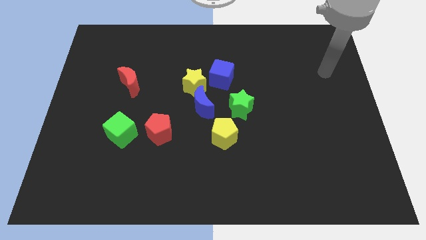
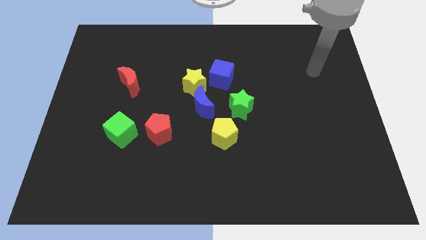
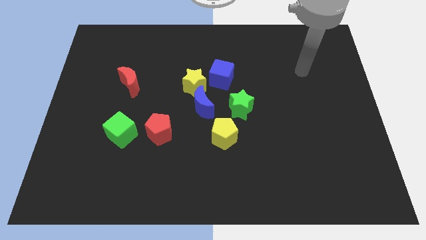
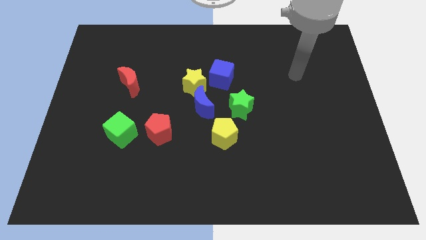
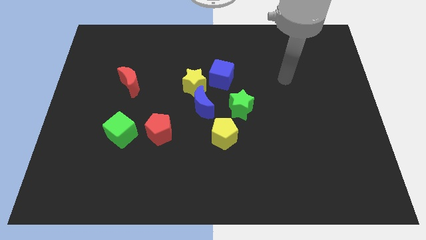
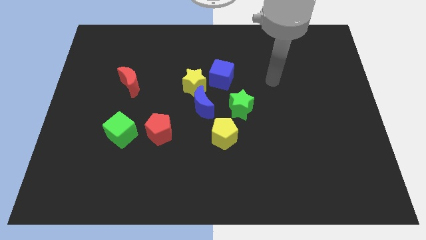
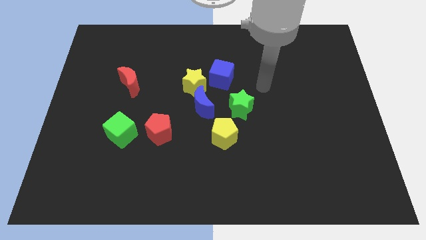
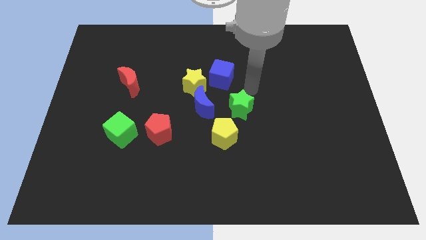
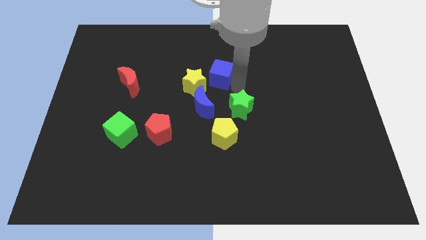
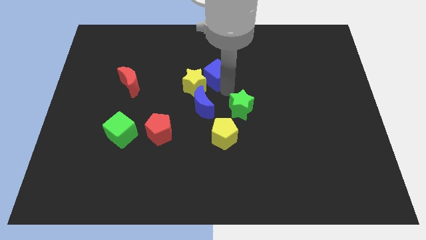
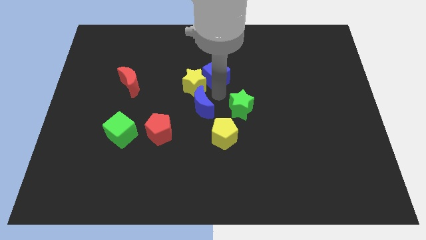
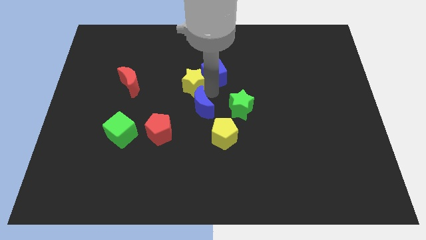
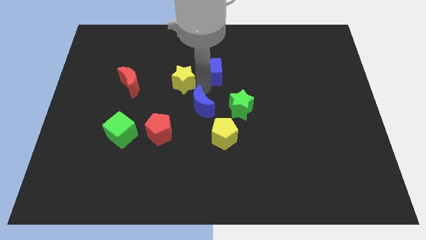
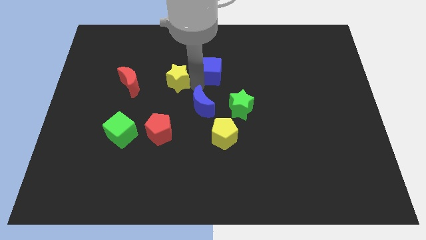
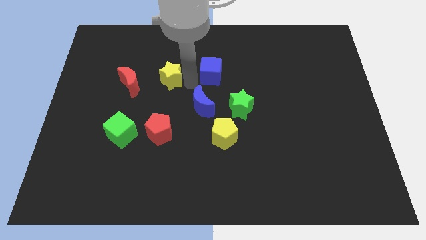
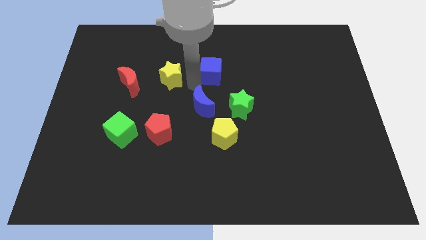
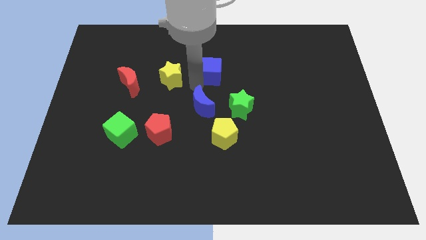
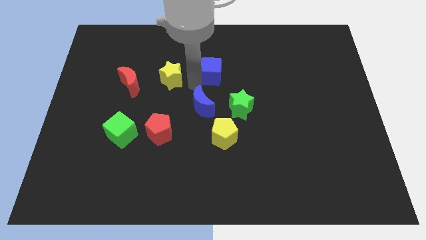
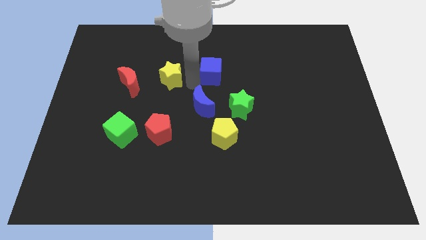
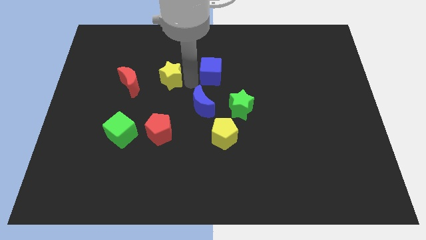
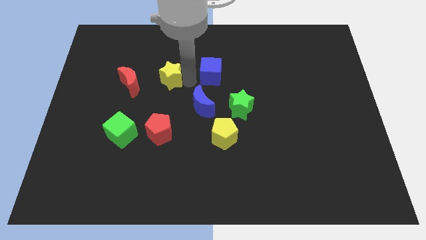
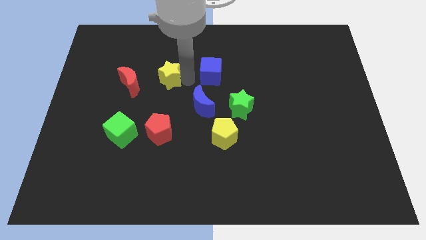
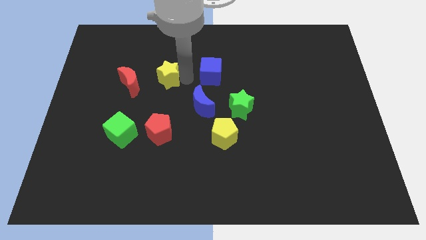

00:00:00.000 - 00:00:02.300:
separate the yellow star from the blue cube and blue moon

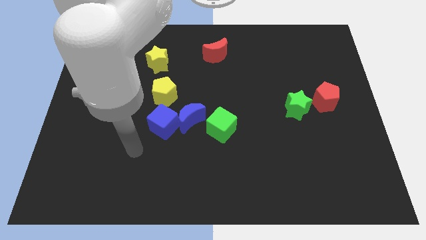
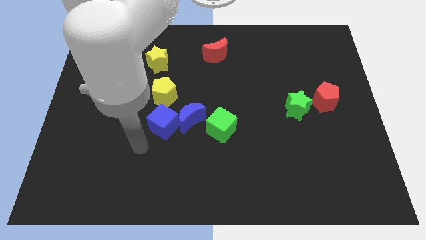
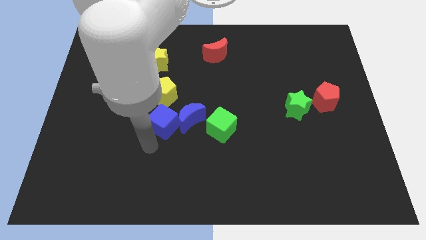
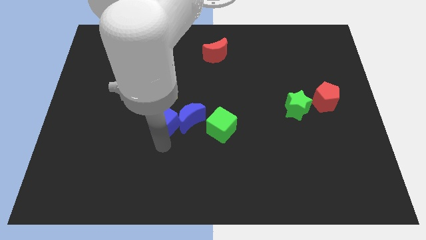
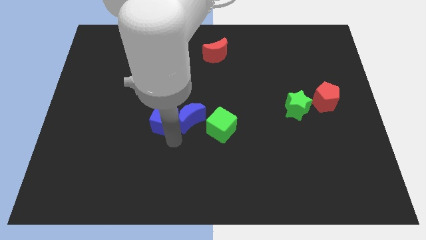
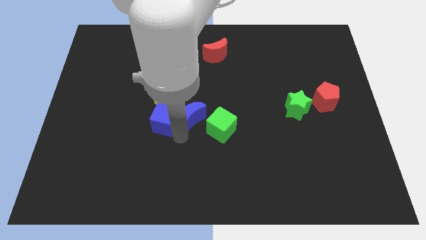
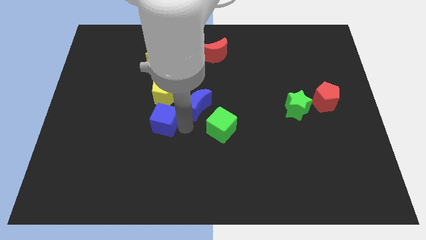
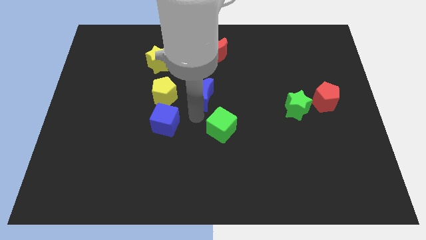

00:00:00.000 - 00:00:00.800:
separate the green cube from the blue moon

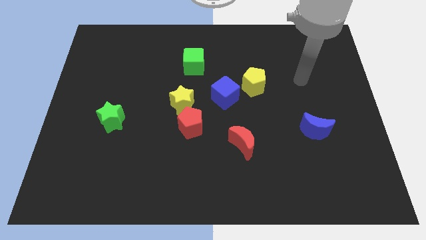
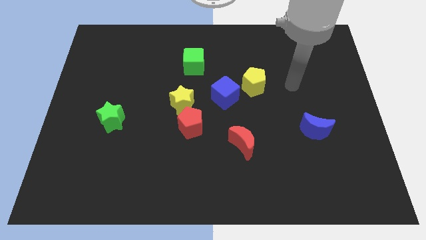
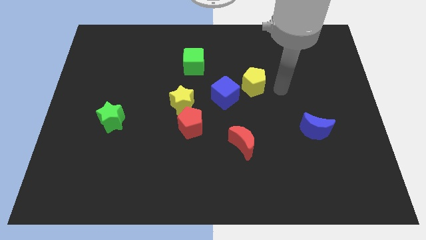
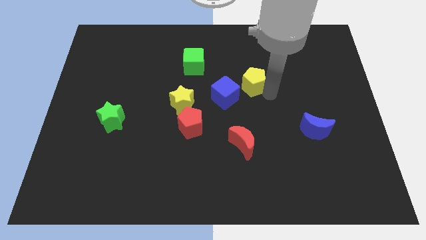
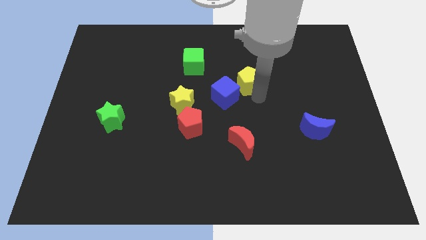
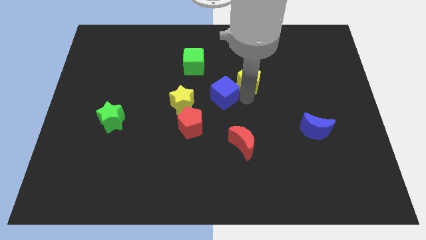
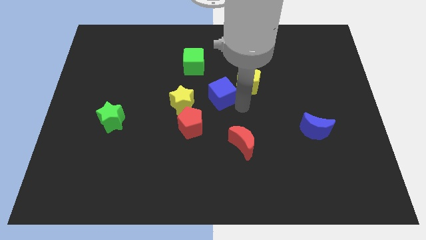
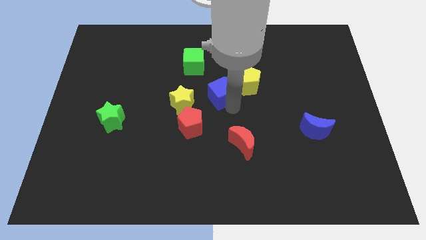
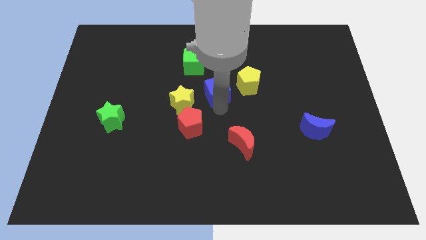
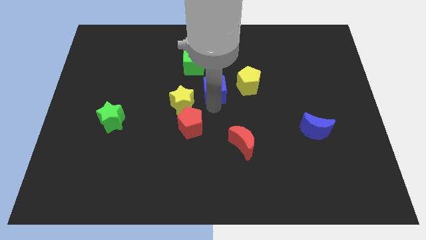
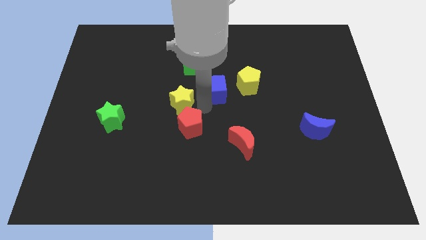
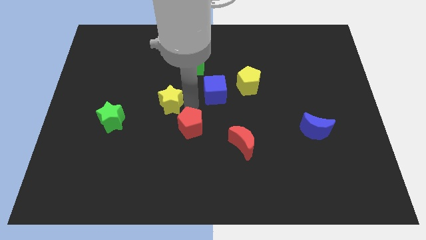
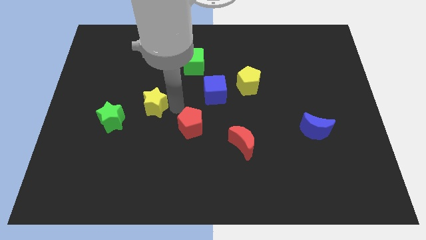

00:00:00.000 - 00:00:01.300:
move the red pentagon away from the yellow star

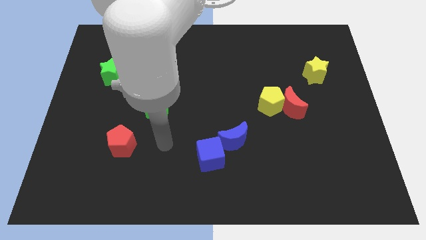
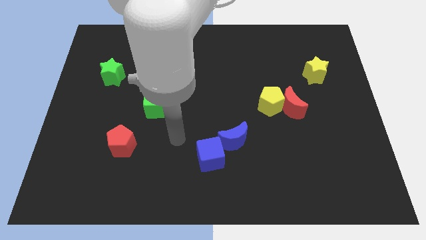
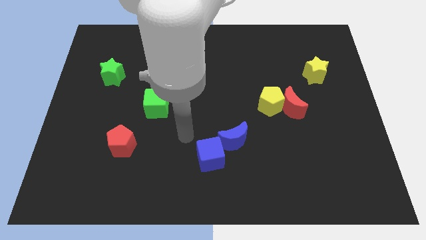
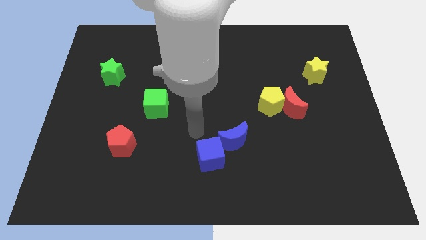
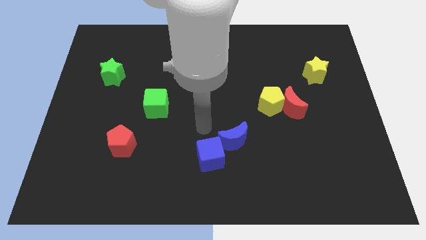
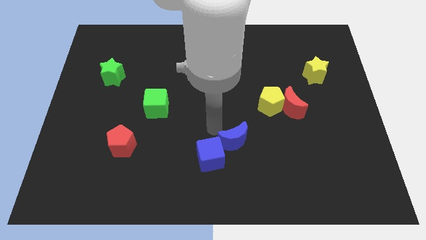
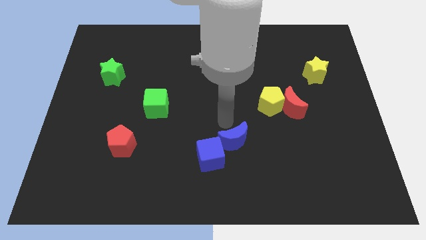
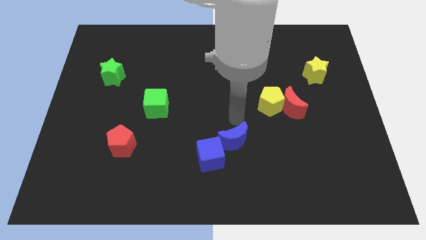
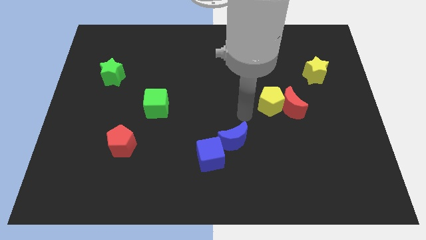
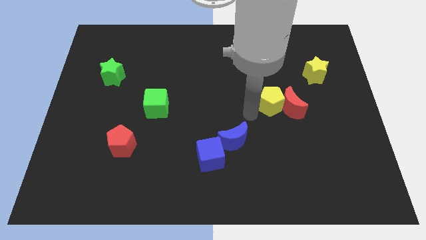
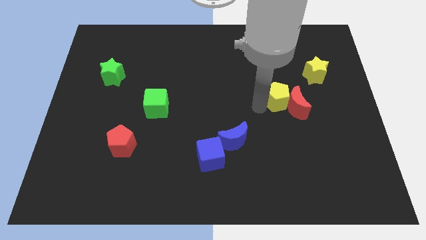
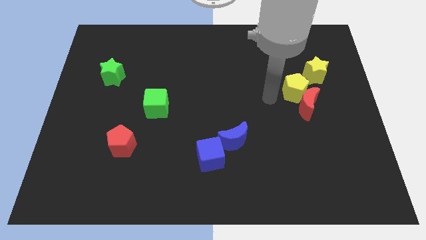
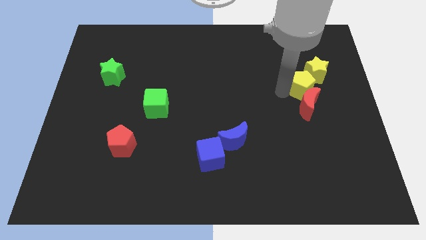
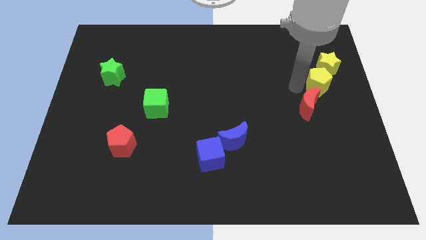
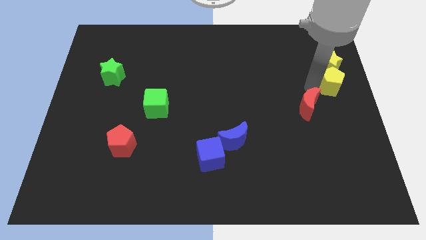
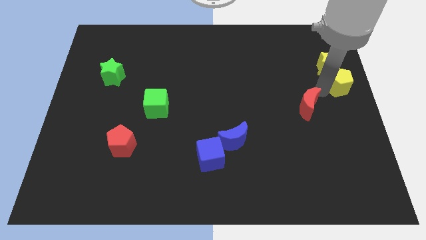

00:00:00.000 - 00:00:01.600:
pull the red moon apart from the yellow pentagon

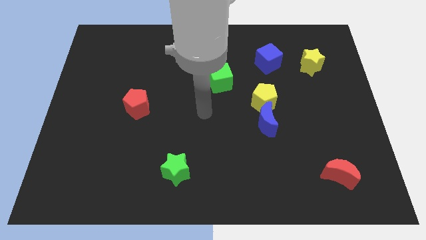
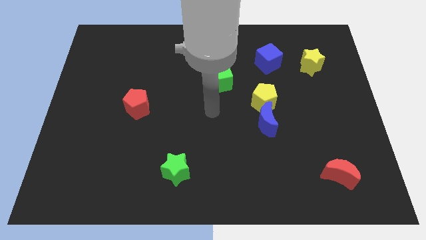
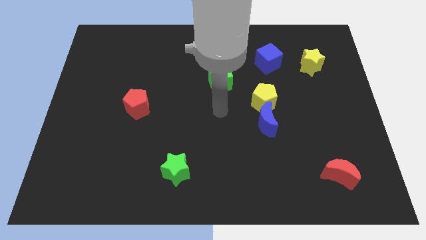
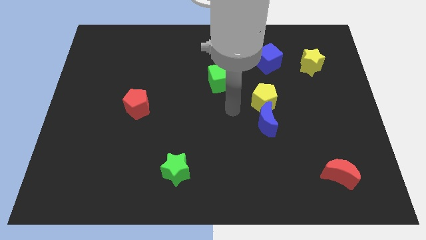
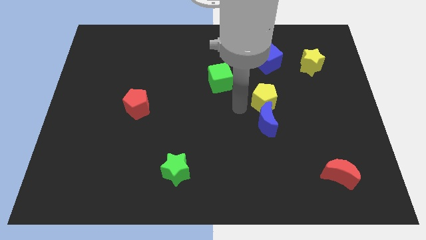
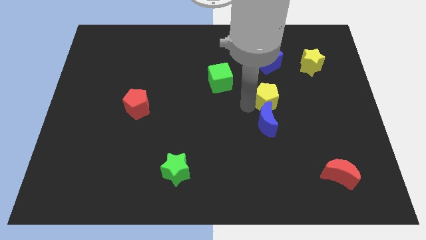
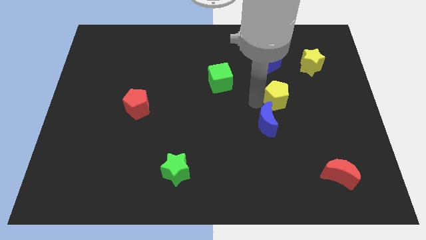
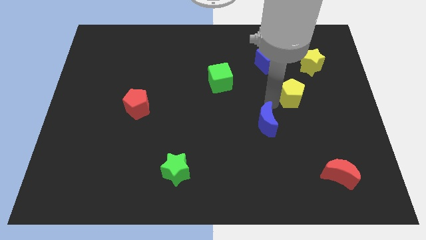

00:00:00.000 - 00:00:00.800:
separate the blue moon from the yellow pentagon

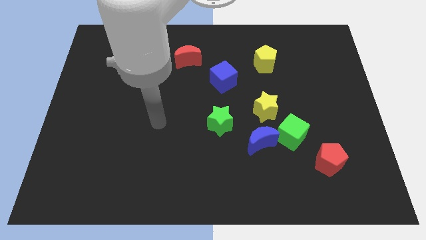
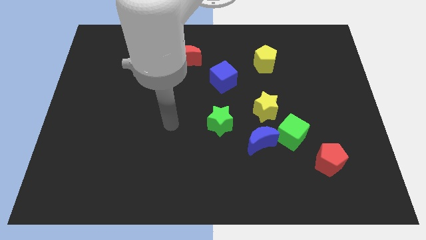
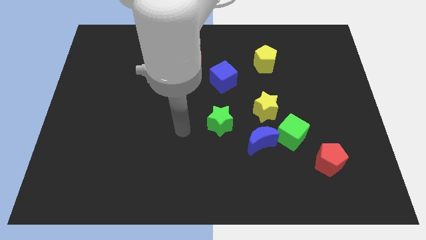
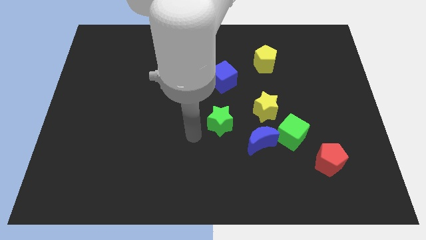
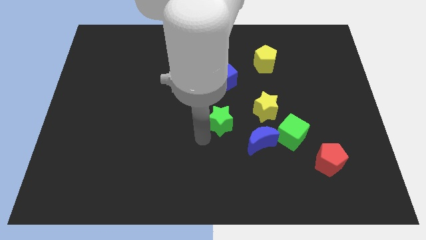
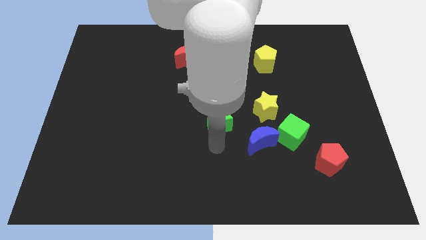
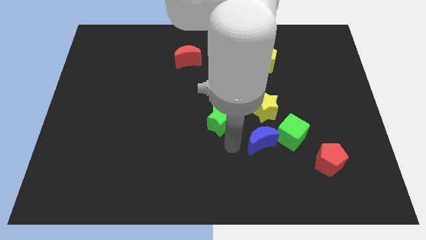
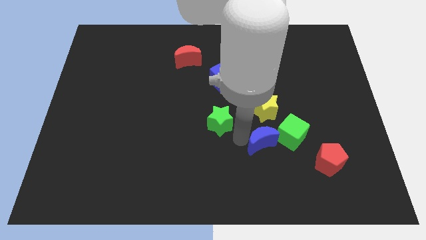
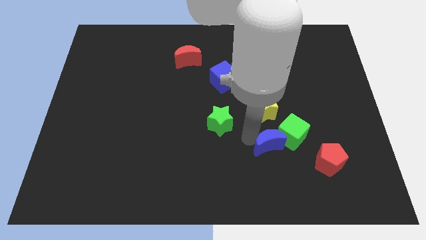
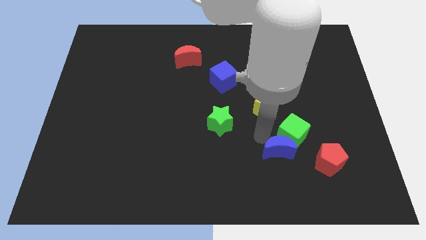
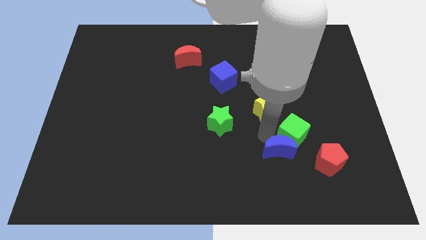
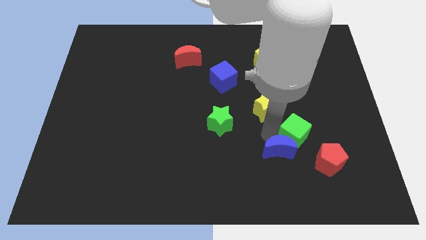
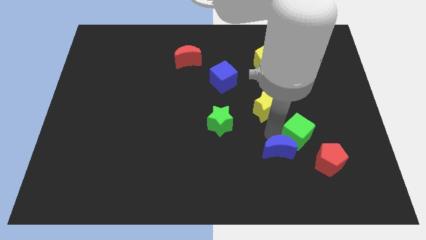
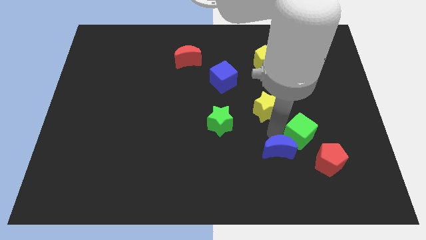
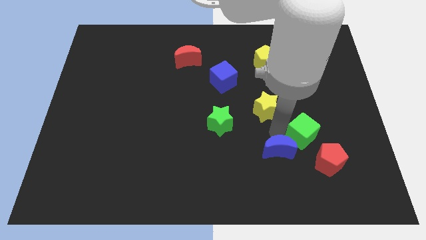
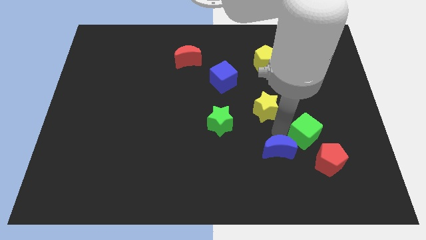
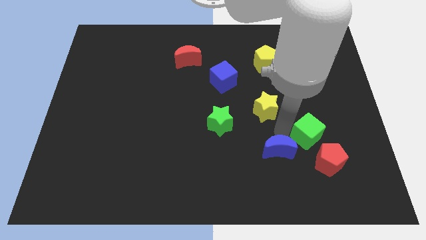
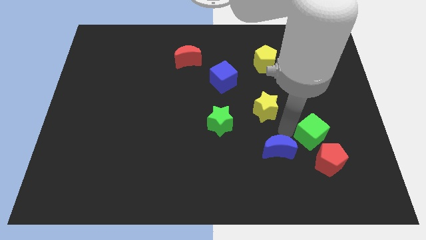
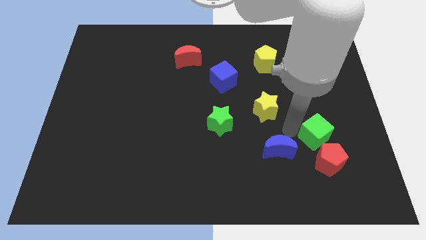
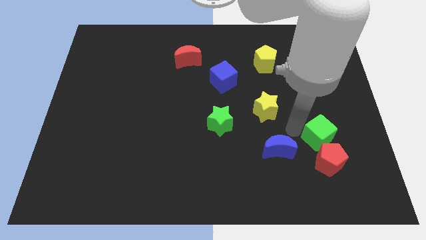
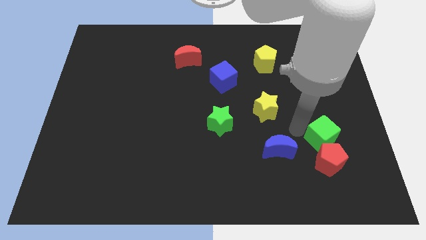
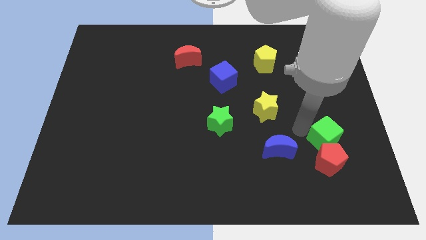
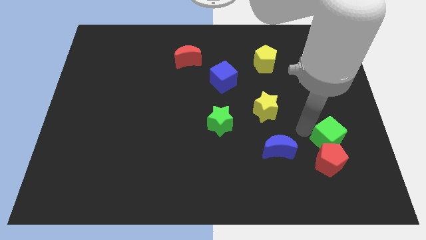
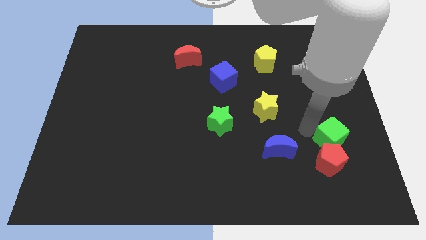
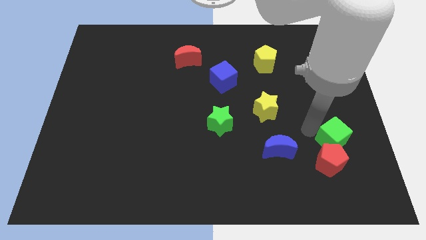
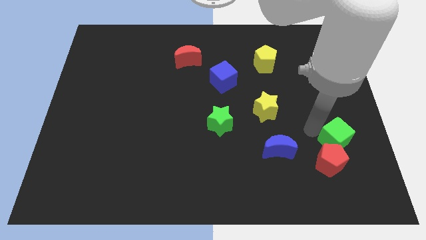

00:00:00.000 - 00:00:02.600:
pull the green cube apart from the blue moon, yellow star, and red pentagon
